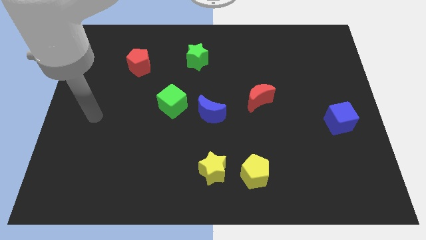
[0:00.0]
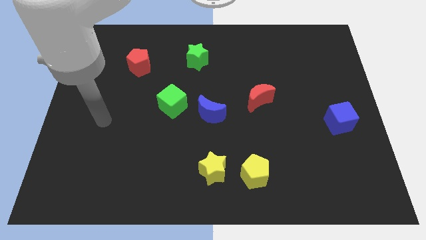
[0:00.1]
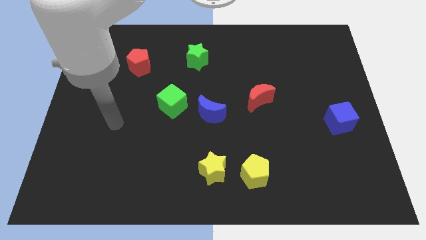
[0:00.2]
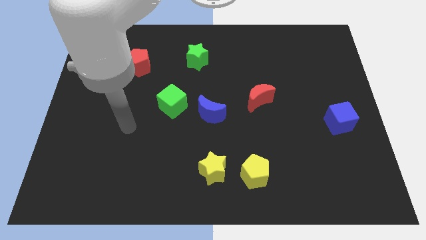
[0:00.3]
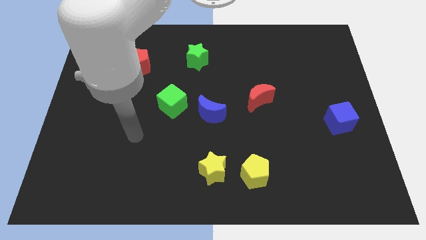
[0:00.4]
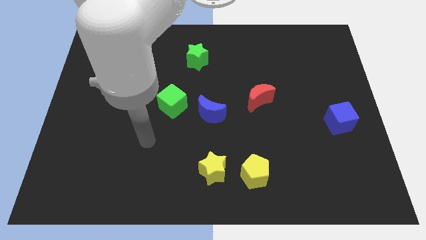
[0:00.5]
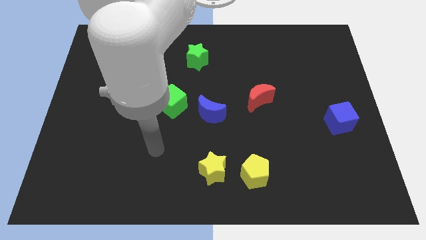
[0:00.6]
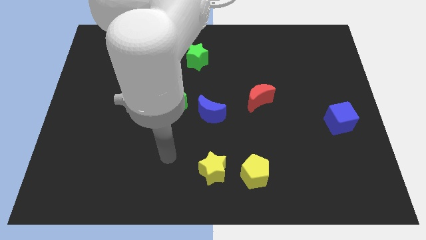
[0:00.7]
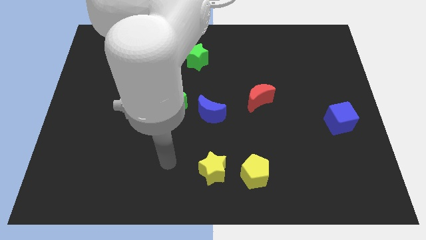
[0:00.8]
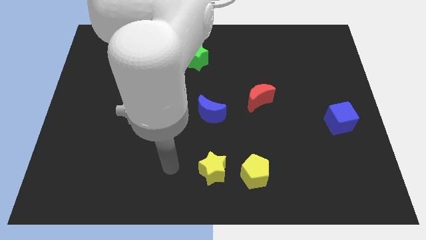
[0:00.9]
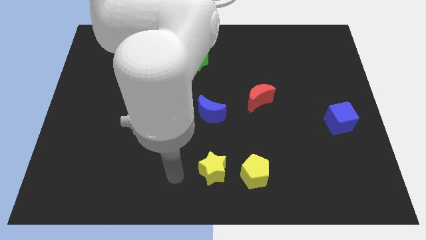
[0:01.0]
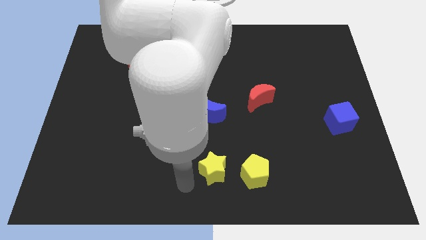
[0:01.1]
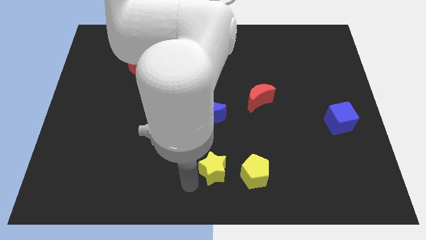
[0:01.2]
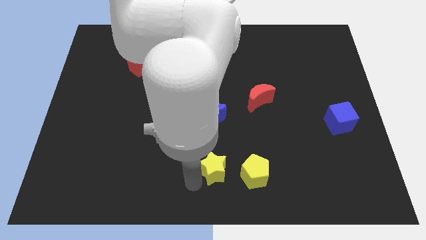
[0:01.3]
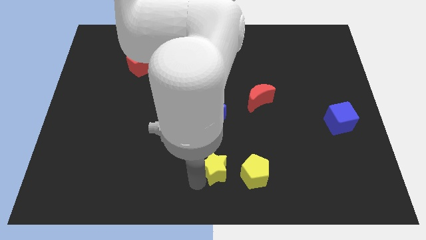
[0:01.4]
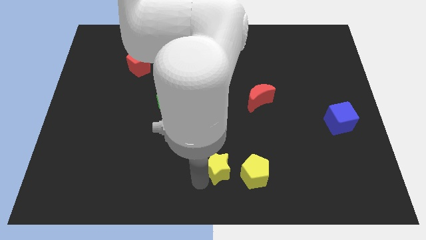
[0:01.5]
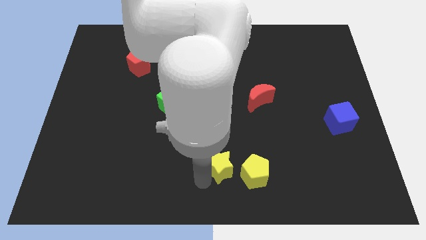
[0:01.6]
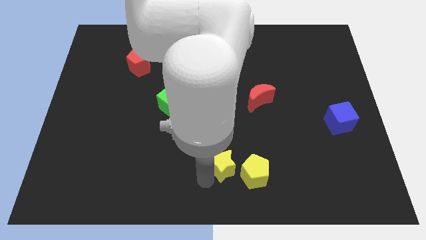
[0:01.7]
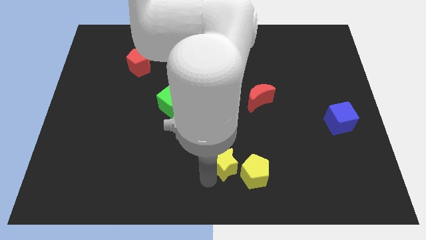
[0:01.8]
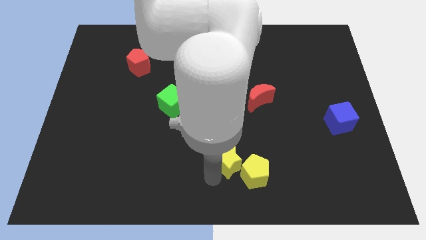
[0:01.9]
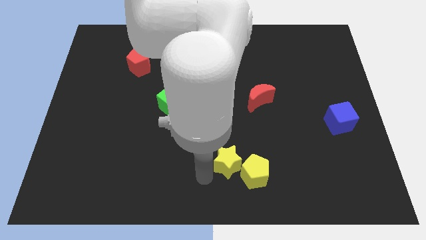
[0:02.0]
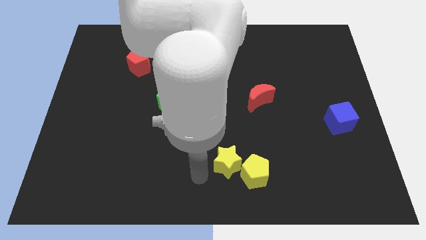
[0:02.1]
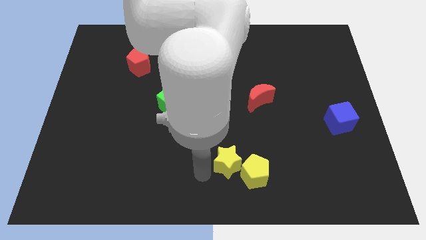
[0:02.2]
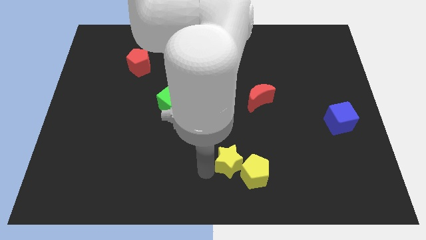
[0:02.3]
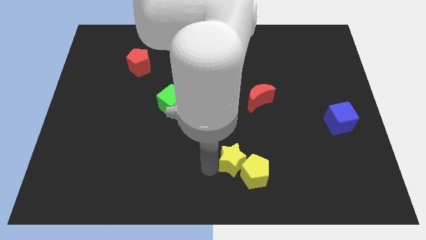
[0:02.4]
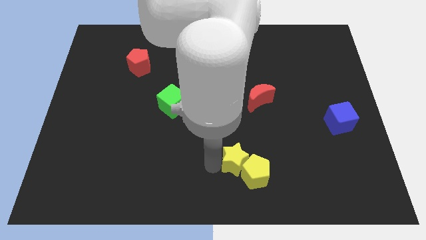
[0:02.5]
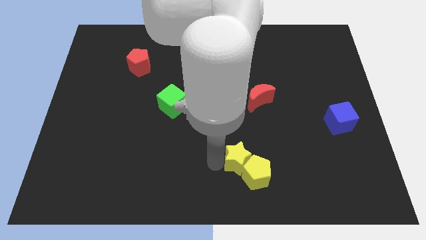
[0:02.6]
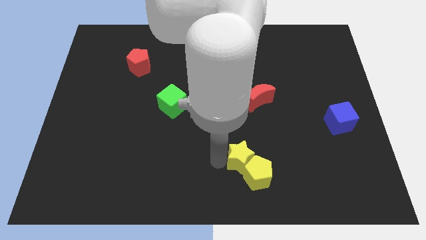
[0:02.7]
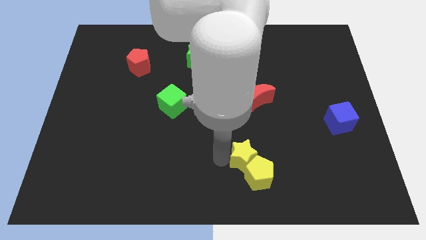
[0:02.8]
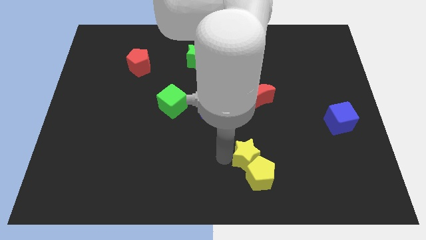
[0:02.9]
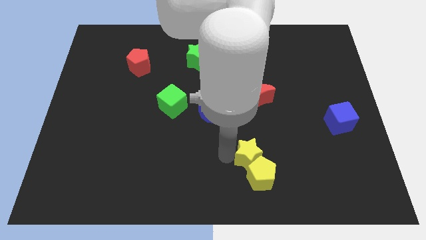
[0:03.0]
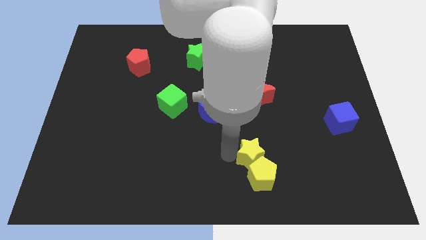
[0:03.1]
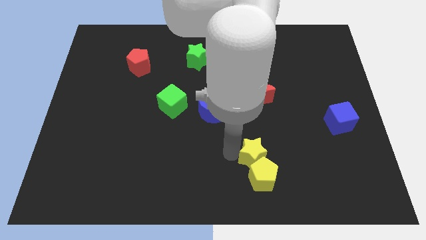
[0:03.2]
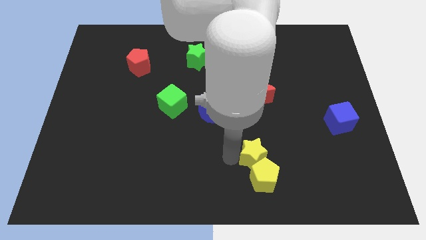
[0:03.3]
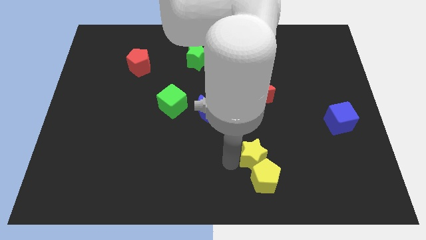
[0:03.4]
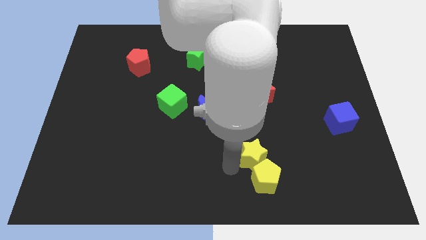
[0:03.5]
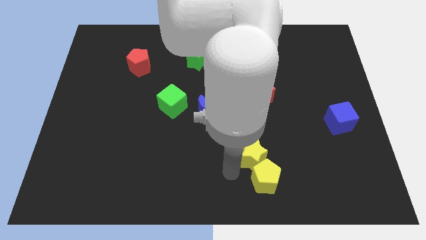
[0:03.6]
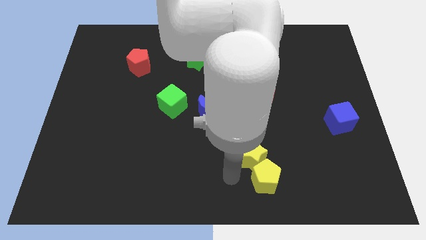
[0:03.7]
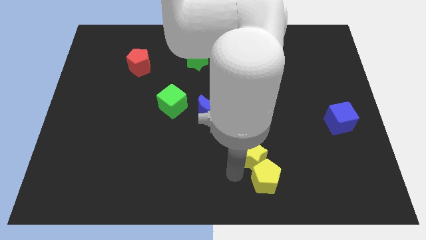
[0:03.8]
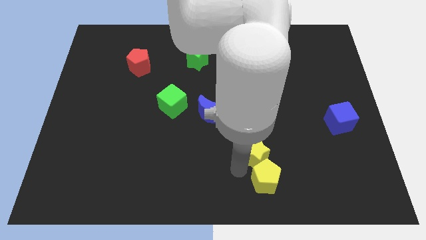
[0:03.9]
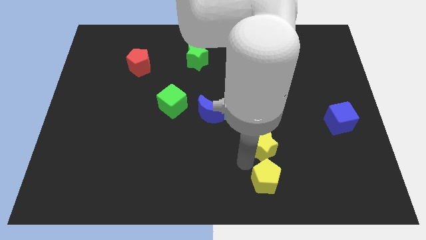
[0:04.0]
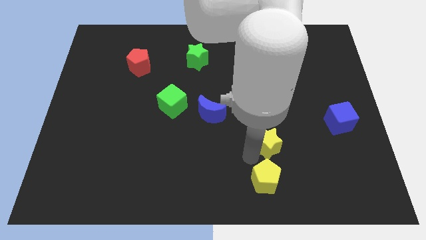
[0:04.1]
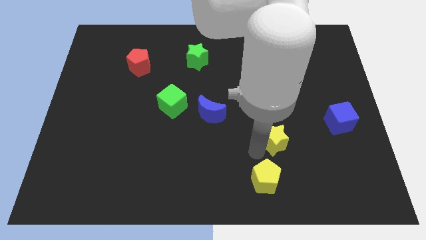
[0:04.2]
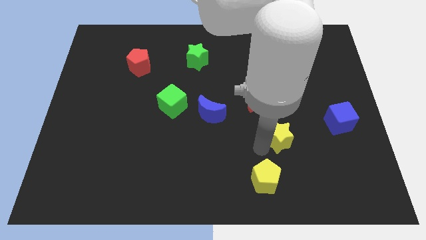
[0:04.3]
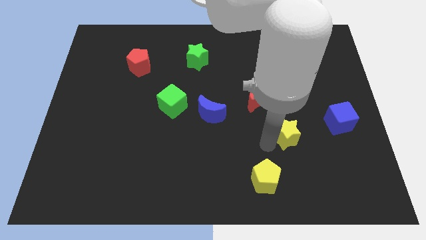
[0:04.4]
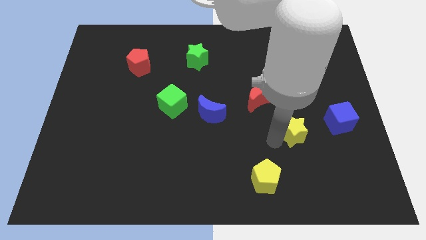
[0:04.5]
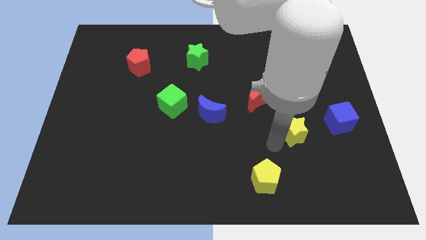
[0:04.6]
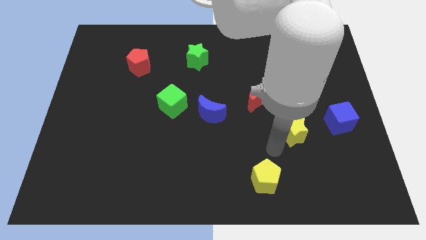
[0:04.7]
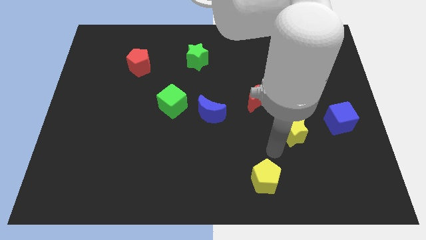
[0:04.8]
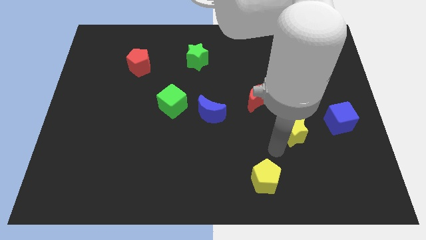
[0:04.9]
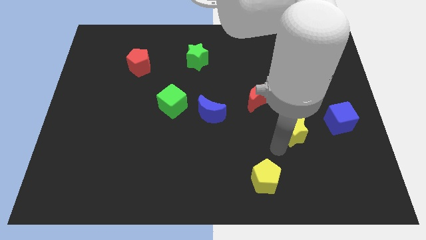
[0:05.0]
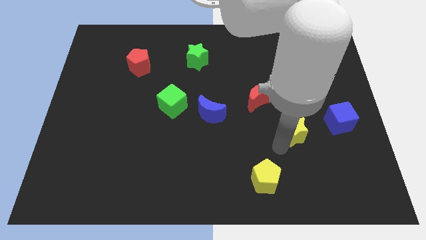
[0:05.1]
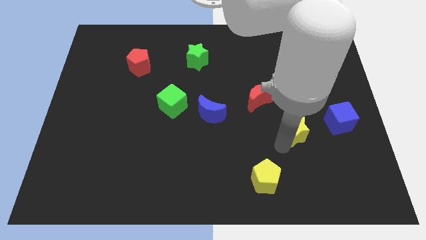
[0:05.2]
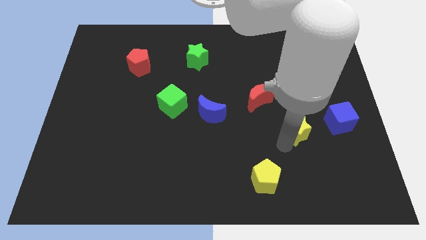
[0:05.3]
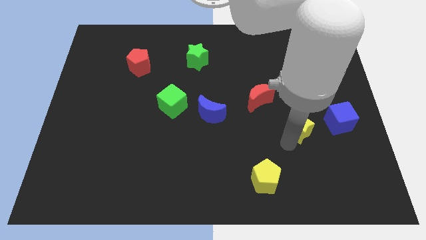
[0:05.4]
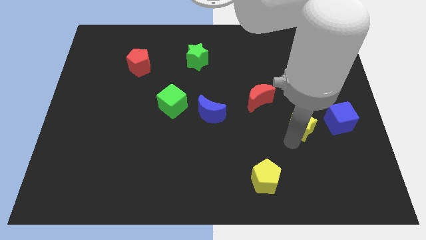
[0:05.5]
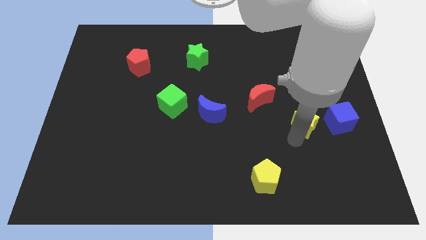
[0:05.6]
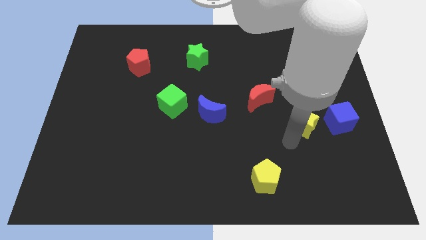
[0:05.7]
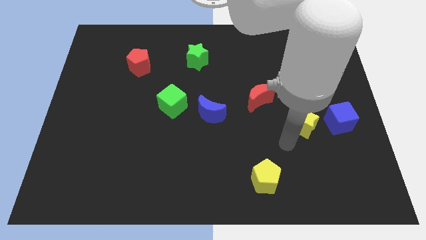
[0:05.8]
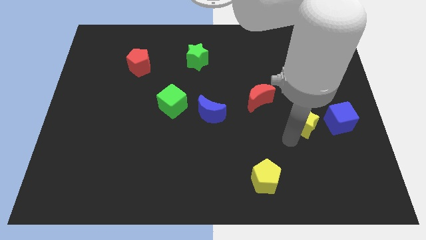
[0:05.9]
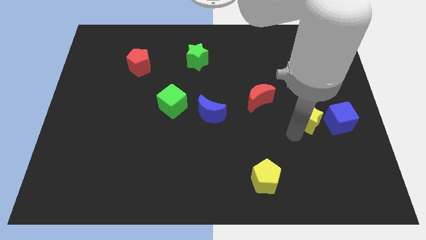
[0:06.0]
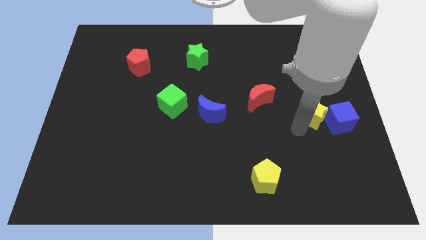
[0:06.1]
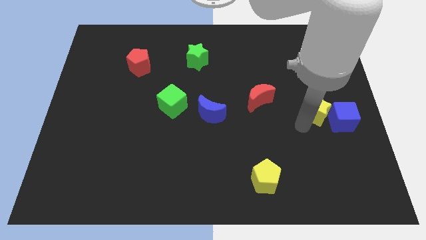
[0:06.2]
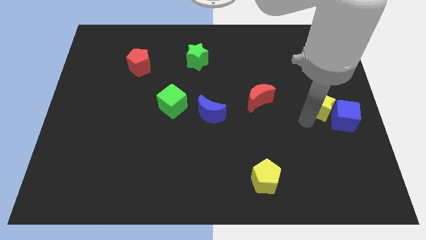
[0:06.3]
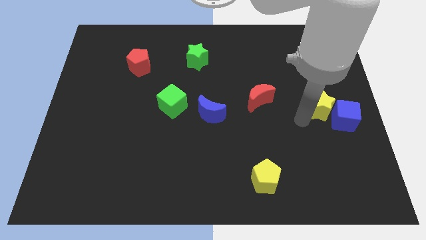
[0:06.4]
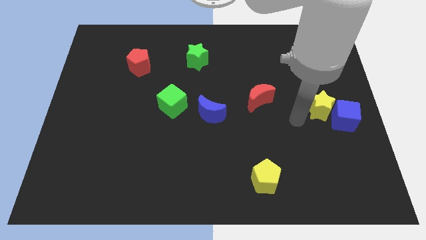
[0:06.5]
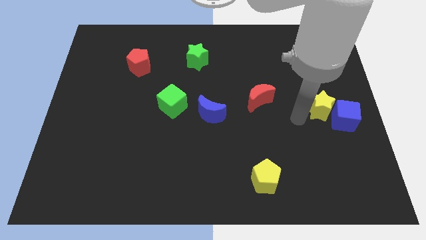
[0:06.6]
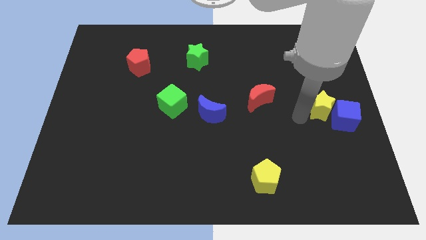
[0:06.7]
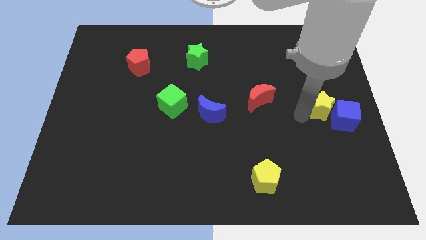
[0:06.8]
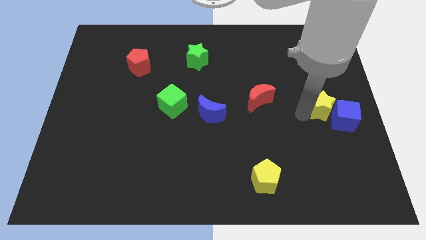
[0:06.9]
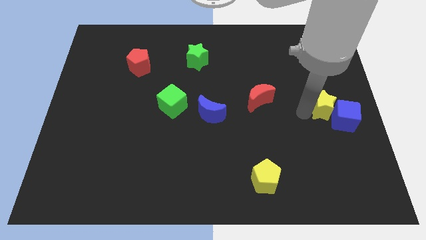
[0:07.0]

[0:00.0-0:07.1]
put the yellow star to the right side
